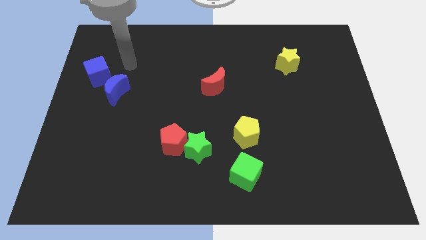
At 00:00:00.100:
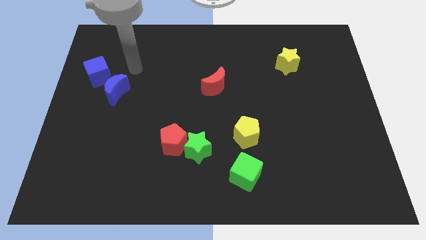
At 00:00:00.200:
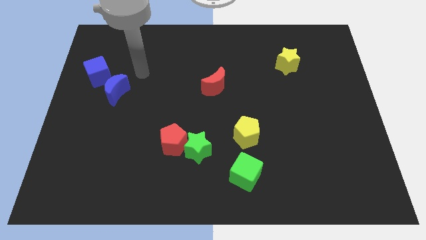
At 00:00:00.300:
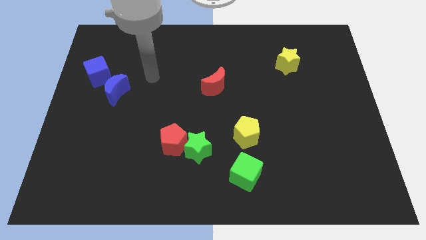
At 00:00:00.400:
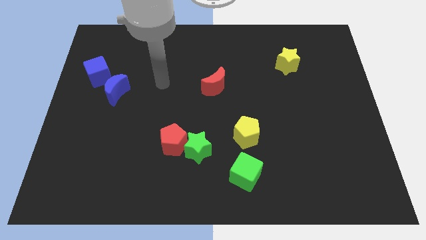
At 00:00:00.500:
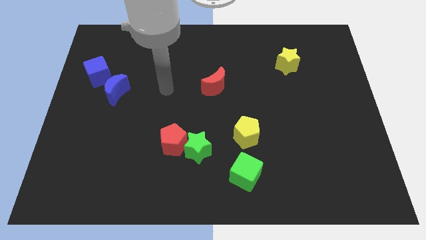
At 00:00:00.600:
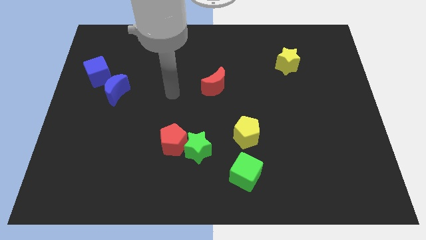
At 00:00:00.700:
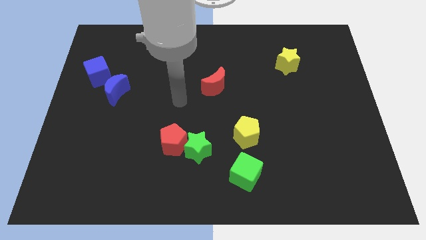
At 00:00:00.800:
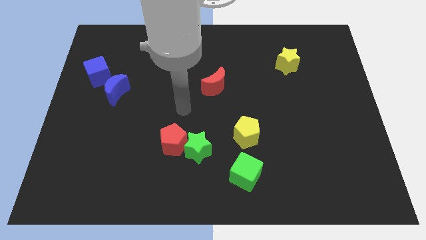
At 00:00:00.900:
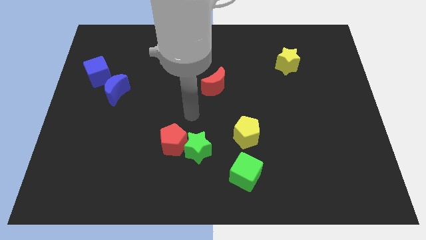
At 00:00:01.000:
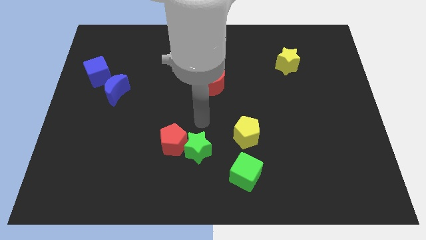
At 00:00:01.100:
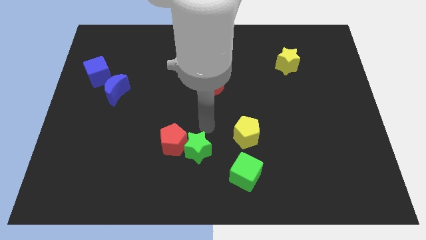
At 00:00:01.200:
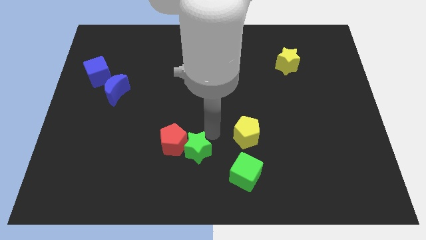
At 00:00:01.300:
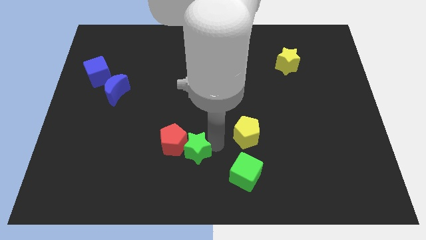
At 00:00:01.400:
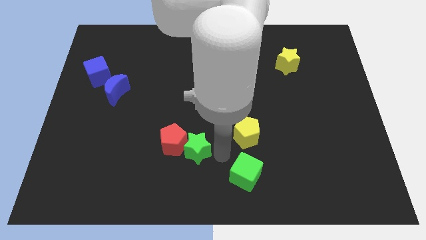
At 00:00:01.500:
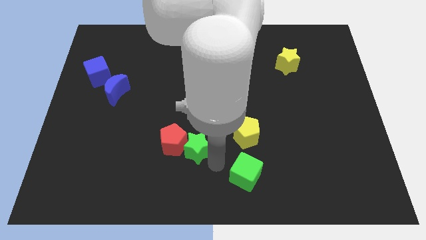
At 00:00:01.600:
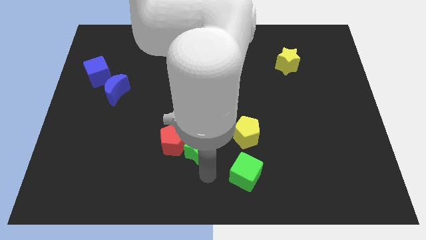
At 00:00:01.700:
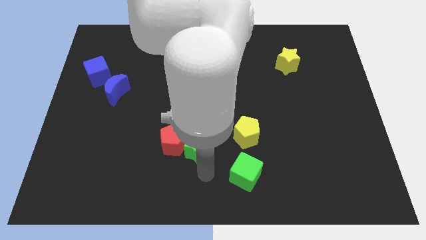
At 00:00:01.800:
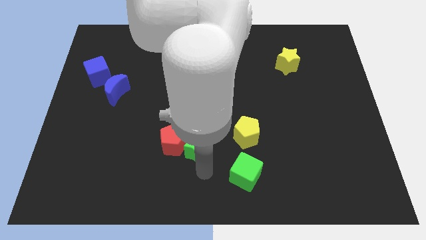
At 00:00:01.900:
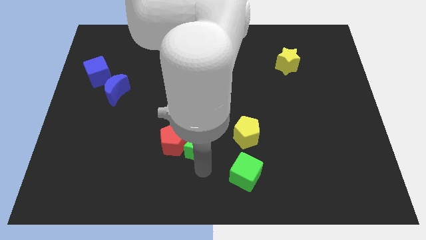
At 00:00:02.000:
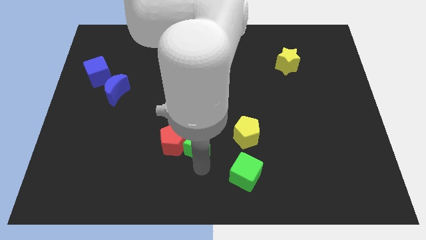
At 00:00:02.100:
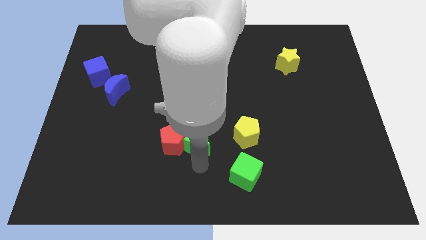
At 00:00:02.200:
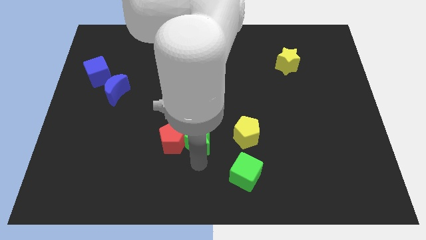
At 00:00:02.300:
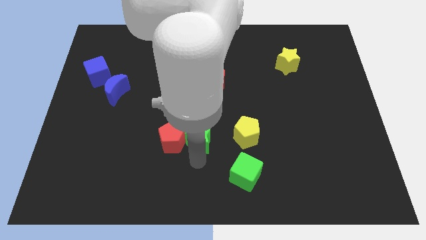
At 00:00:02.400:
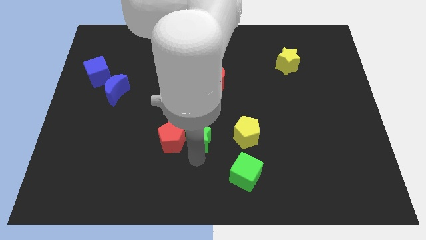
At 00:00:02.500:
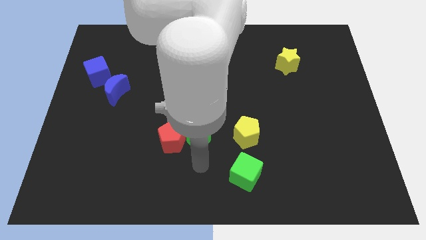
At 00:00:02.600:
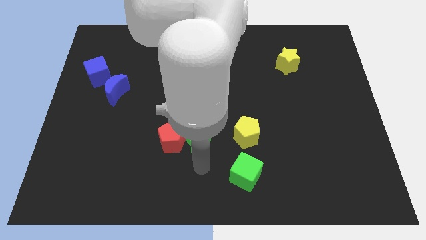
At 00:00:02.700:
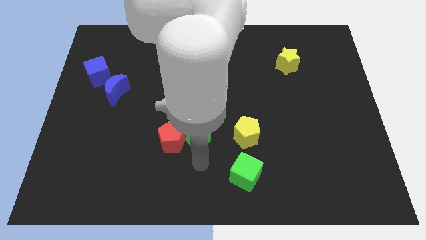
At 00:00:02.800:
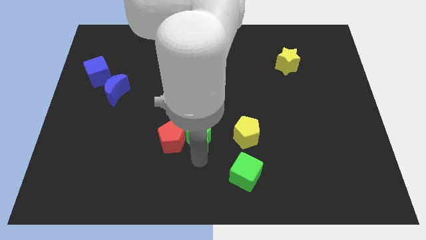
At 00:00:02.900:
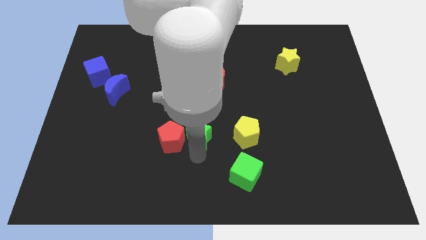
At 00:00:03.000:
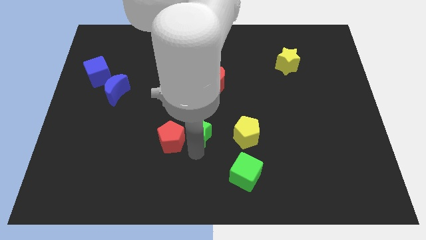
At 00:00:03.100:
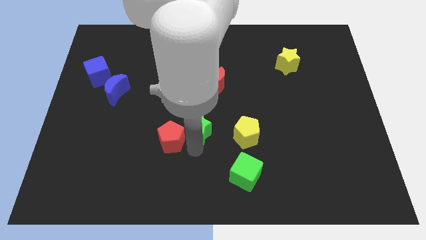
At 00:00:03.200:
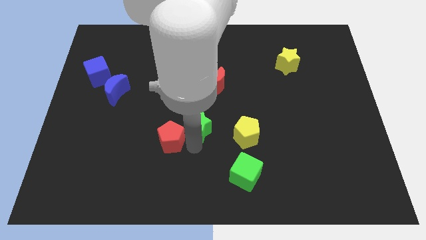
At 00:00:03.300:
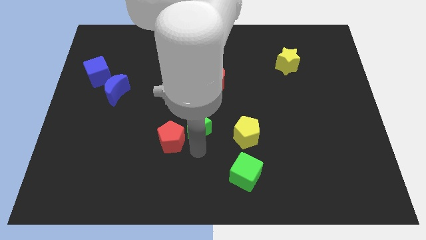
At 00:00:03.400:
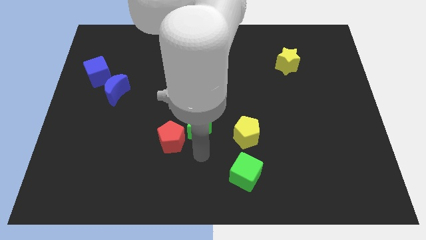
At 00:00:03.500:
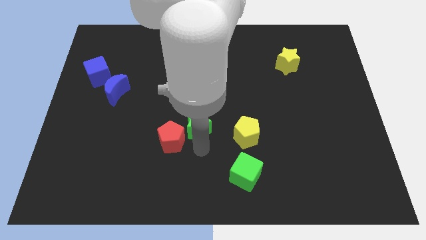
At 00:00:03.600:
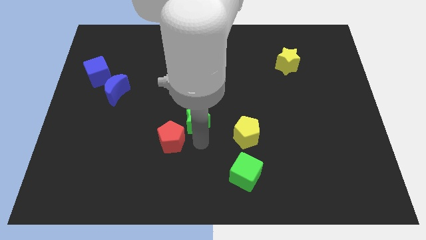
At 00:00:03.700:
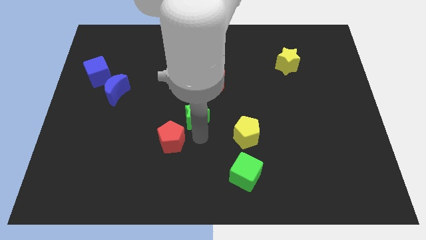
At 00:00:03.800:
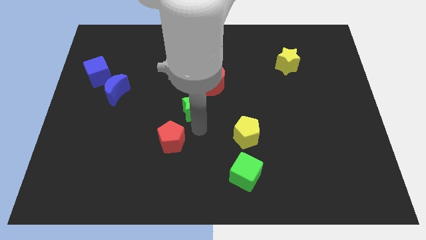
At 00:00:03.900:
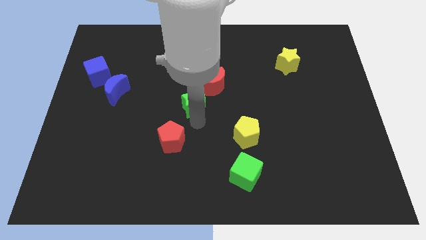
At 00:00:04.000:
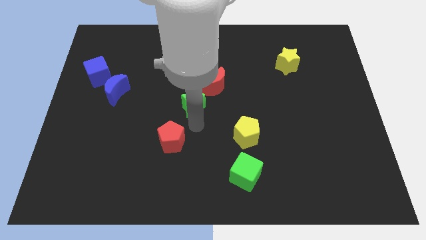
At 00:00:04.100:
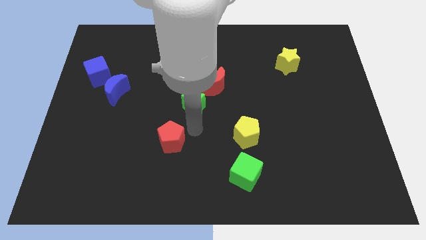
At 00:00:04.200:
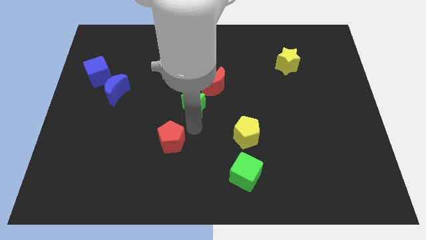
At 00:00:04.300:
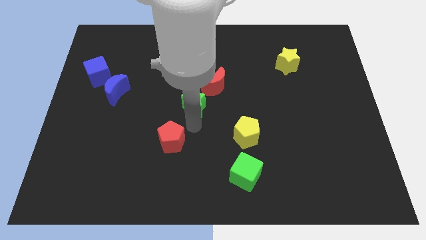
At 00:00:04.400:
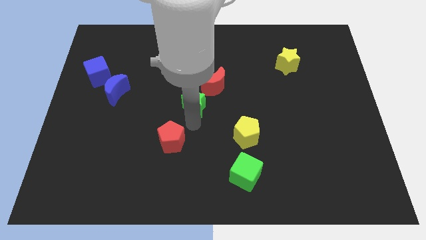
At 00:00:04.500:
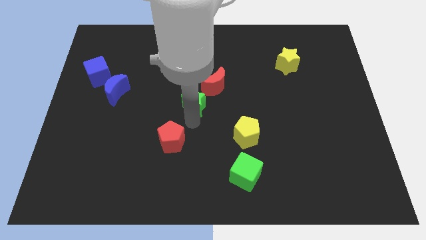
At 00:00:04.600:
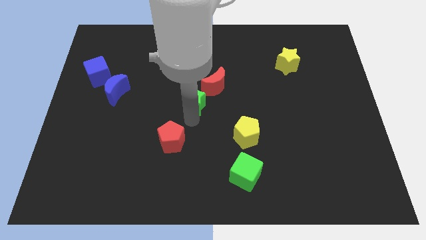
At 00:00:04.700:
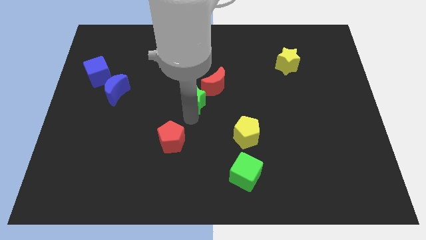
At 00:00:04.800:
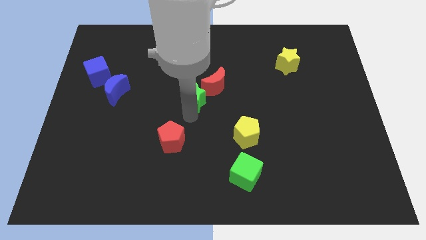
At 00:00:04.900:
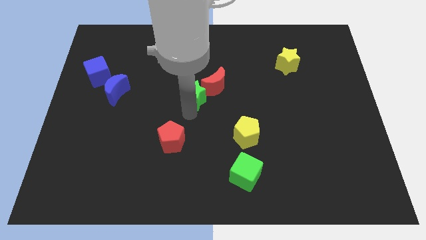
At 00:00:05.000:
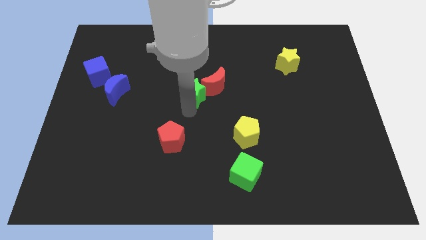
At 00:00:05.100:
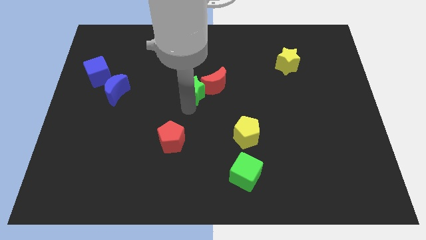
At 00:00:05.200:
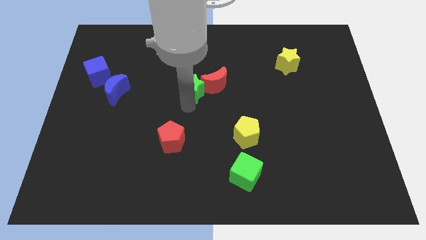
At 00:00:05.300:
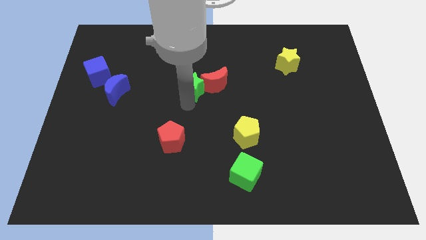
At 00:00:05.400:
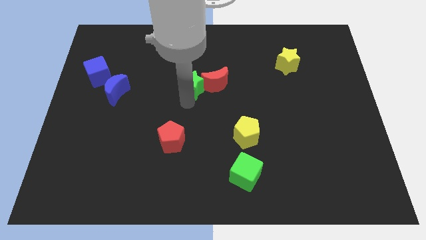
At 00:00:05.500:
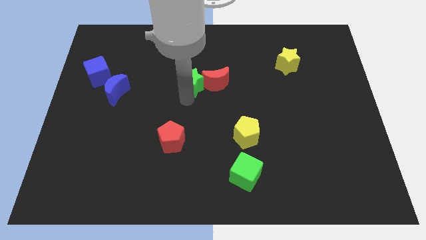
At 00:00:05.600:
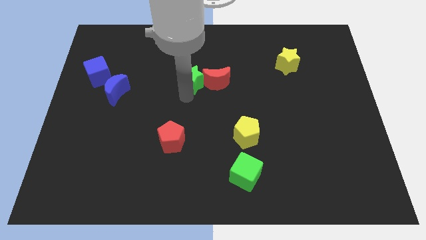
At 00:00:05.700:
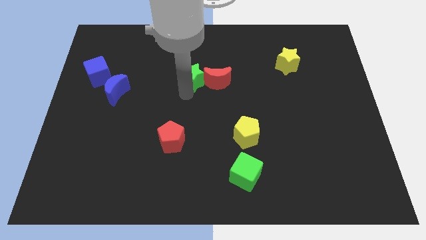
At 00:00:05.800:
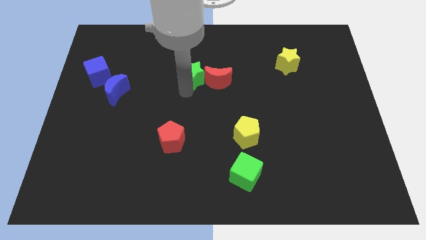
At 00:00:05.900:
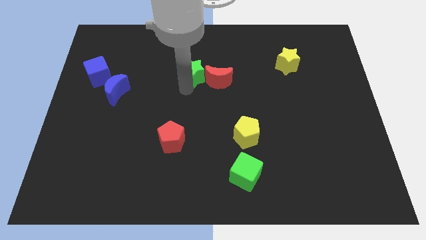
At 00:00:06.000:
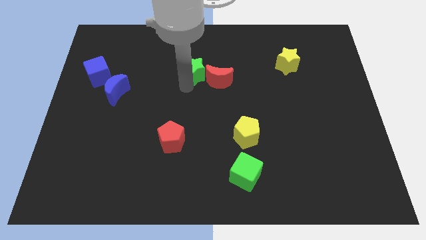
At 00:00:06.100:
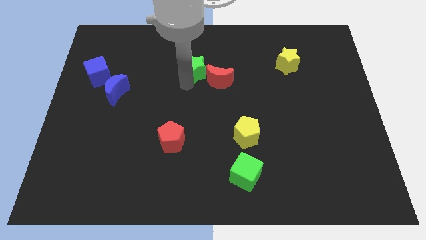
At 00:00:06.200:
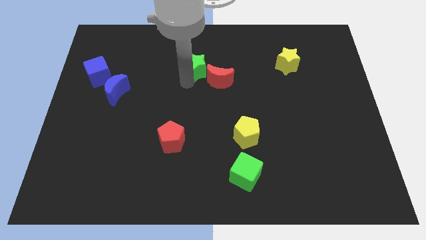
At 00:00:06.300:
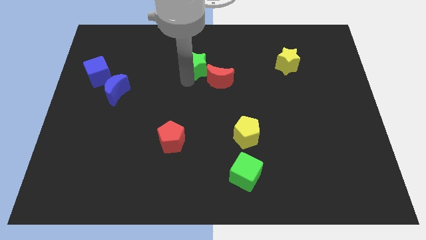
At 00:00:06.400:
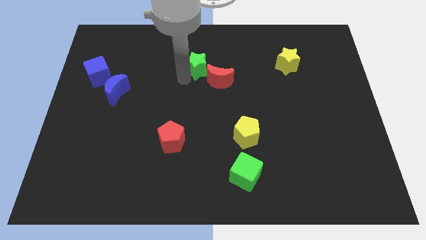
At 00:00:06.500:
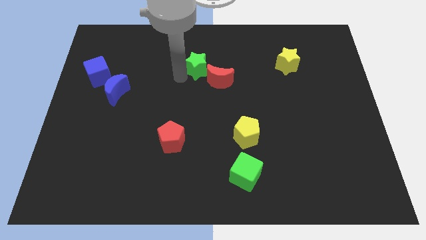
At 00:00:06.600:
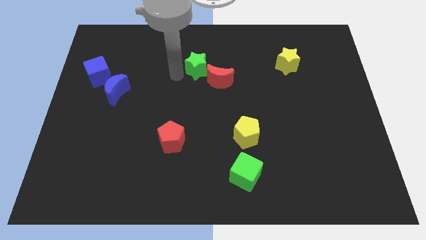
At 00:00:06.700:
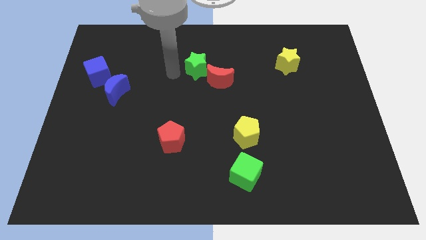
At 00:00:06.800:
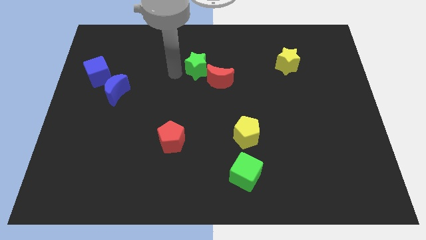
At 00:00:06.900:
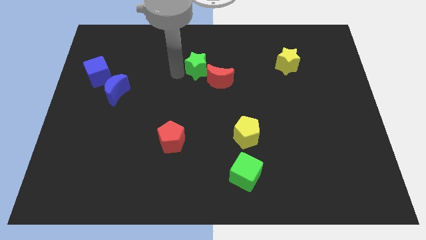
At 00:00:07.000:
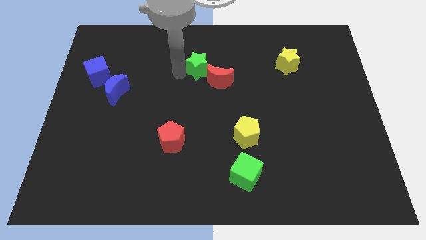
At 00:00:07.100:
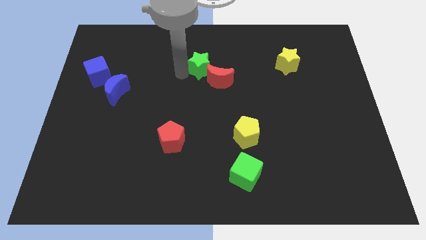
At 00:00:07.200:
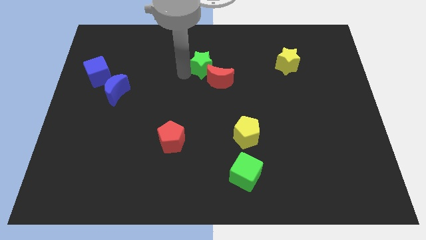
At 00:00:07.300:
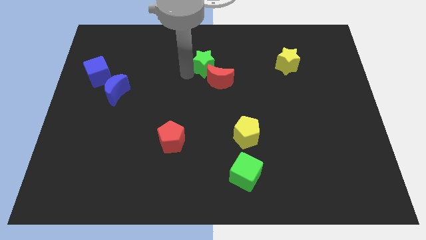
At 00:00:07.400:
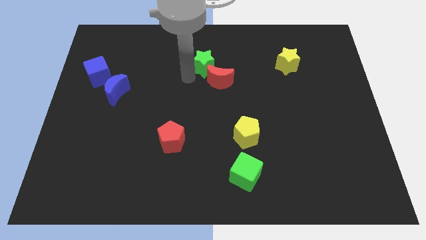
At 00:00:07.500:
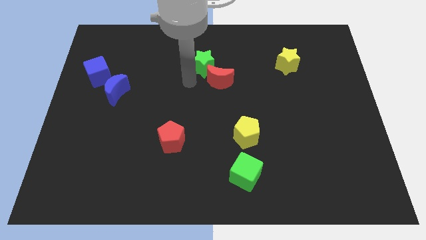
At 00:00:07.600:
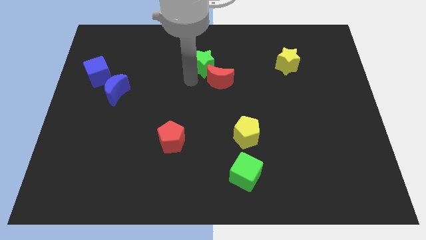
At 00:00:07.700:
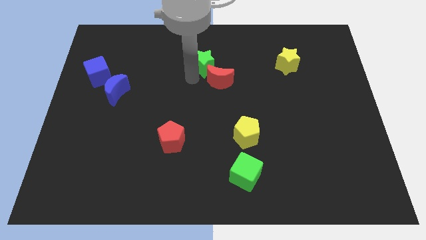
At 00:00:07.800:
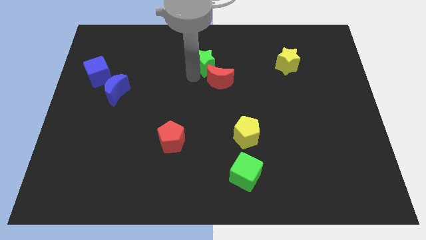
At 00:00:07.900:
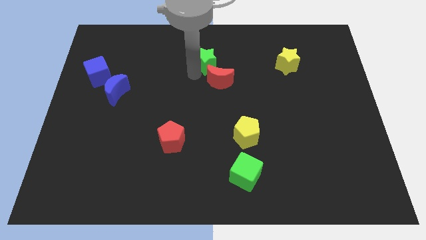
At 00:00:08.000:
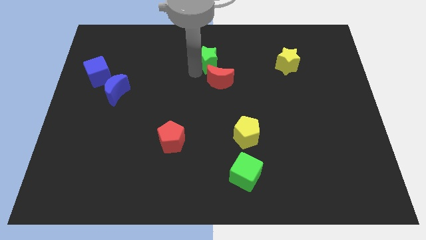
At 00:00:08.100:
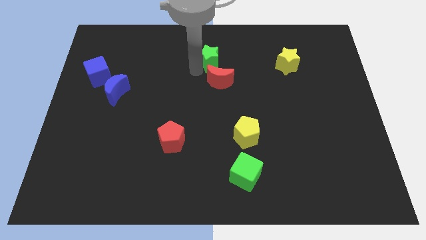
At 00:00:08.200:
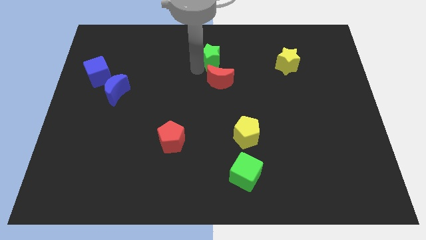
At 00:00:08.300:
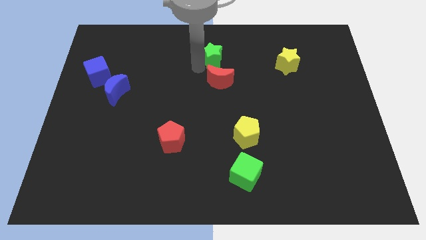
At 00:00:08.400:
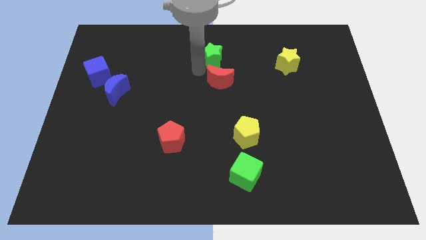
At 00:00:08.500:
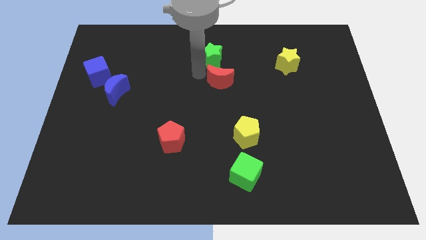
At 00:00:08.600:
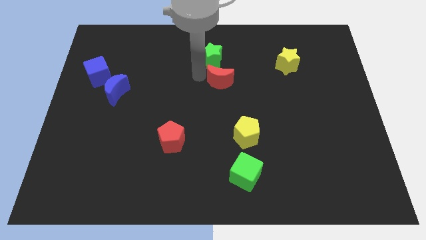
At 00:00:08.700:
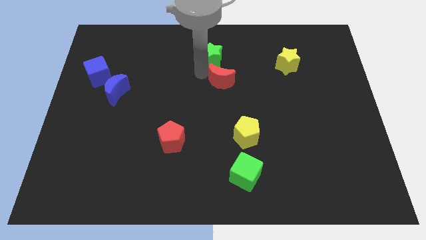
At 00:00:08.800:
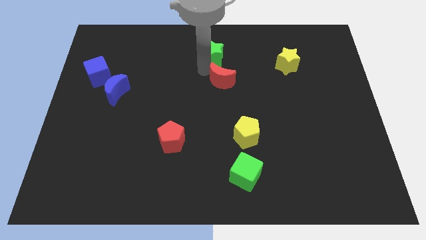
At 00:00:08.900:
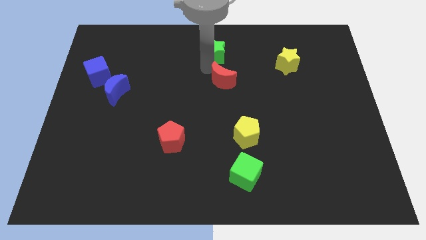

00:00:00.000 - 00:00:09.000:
put the green star to the towards your base
